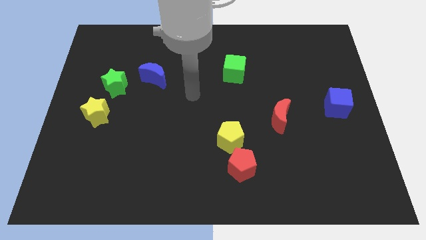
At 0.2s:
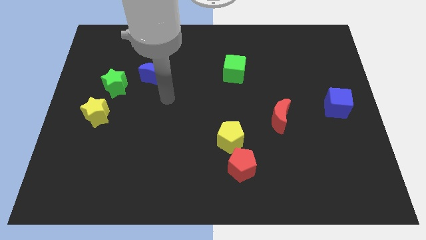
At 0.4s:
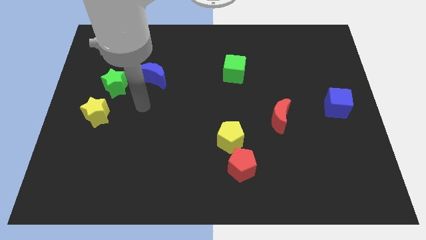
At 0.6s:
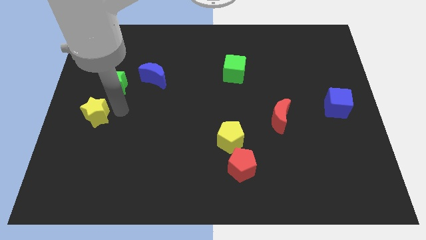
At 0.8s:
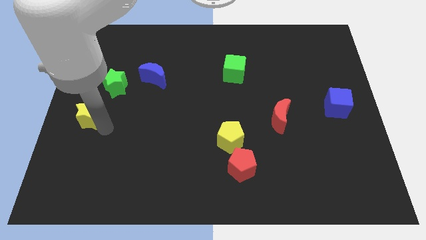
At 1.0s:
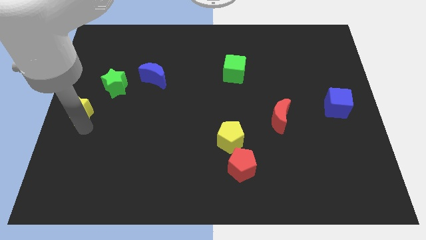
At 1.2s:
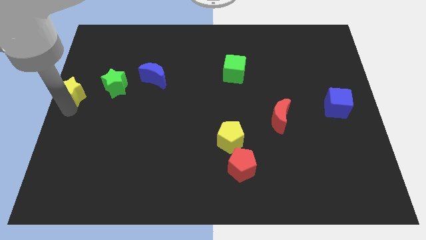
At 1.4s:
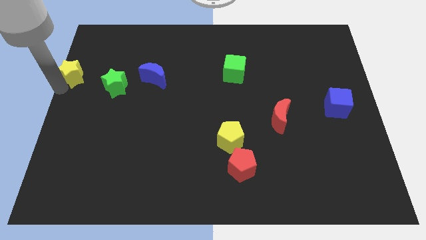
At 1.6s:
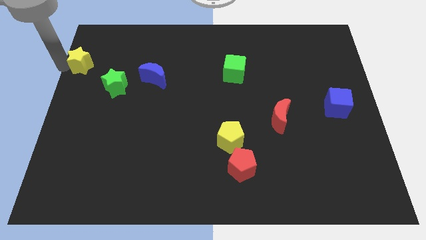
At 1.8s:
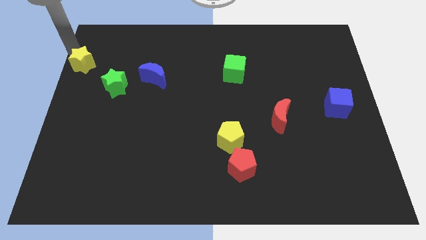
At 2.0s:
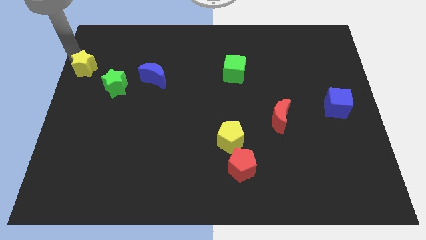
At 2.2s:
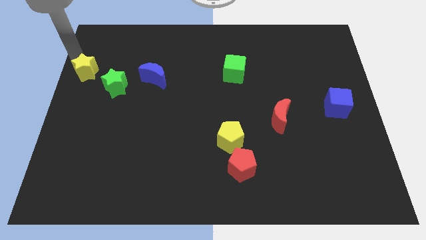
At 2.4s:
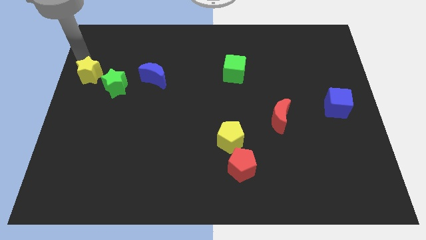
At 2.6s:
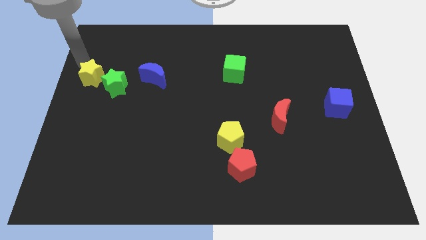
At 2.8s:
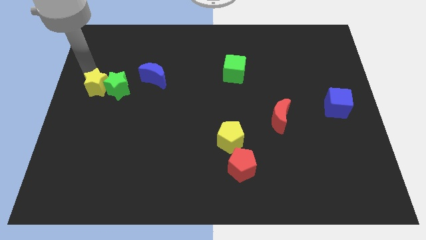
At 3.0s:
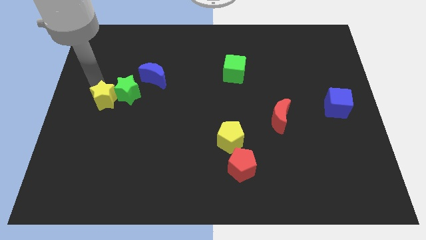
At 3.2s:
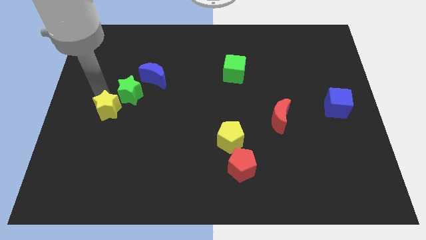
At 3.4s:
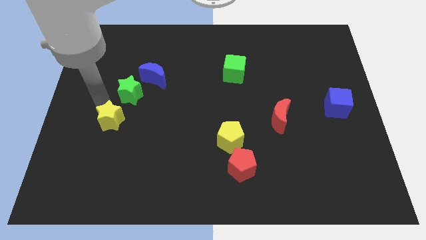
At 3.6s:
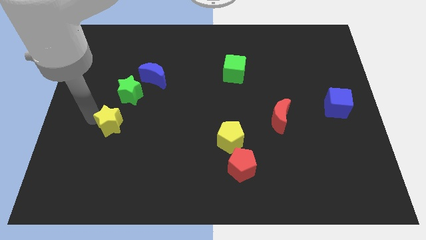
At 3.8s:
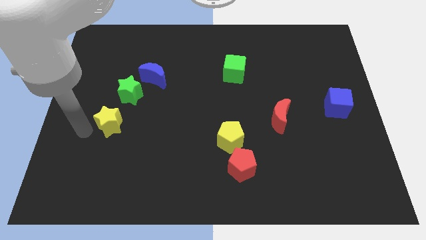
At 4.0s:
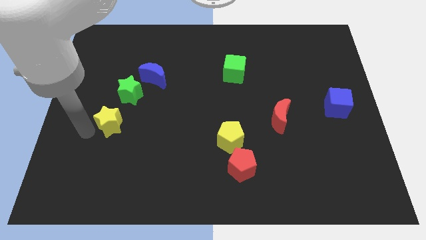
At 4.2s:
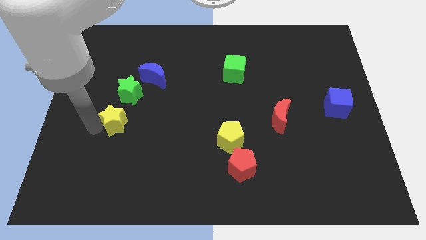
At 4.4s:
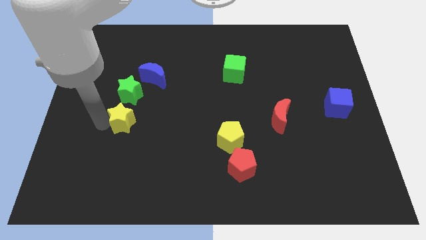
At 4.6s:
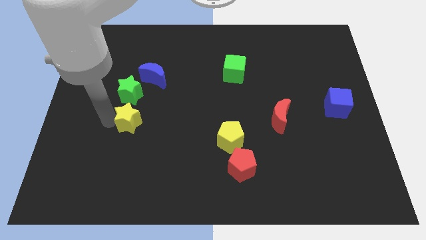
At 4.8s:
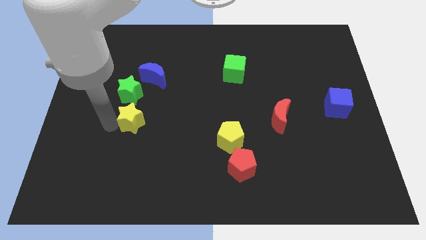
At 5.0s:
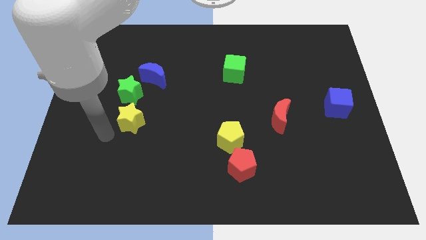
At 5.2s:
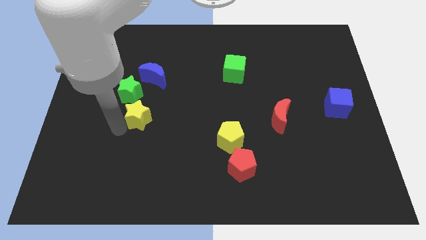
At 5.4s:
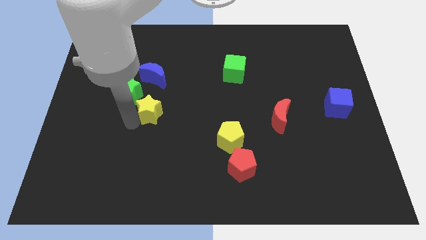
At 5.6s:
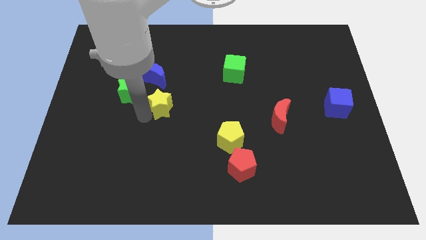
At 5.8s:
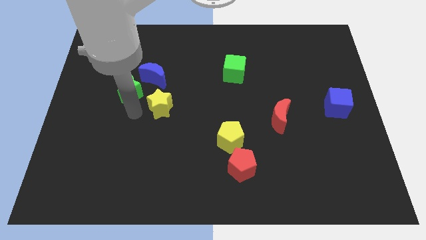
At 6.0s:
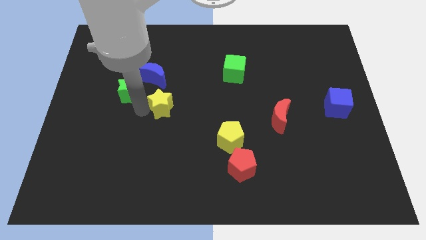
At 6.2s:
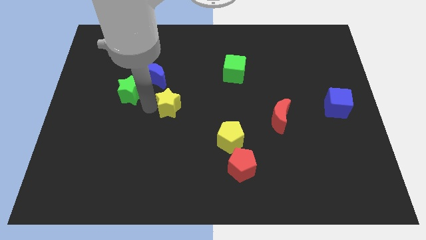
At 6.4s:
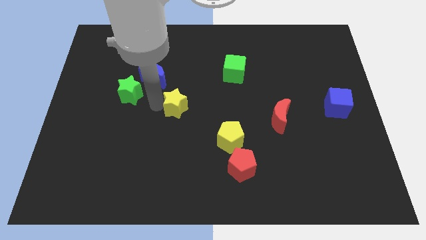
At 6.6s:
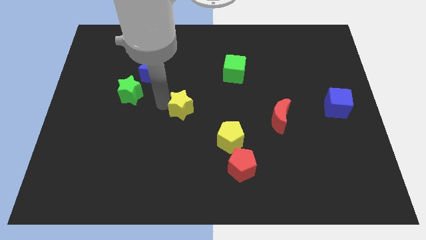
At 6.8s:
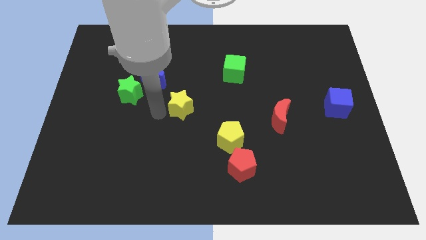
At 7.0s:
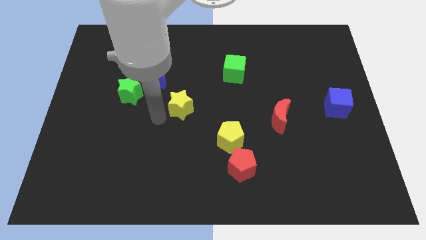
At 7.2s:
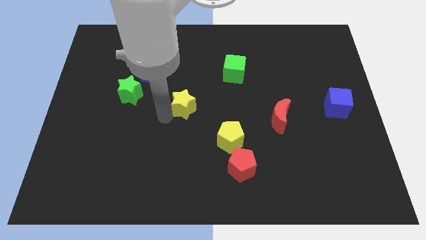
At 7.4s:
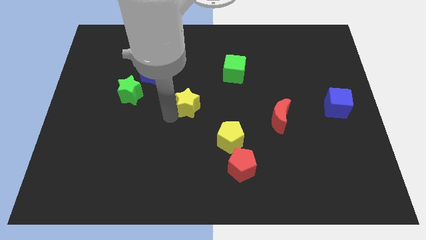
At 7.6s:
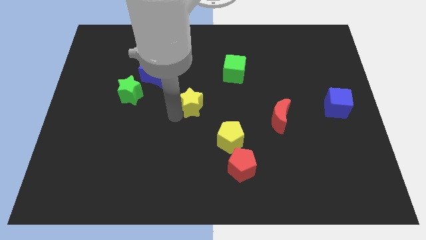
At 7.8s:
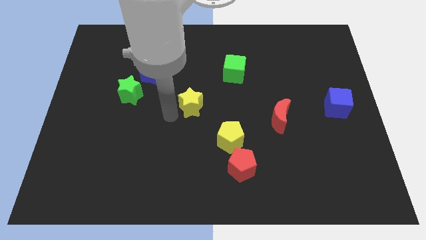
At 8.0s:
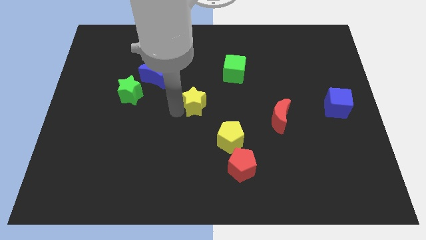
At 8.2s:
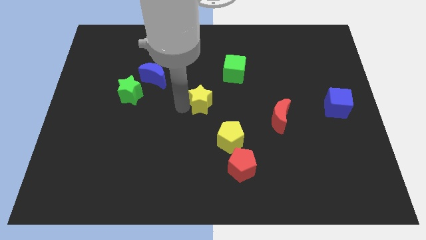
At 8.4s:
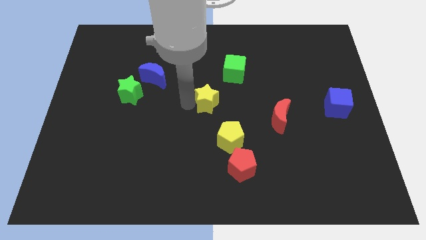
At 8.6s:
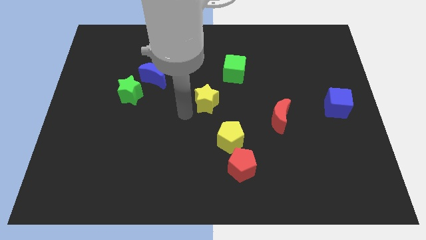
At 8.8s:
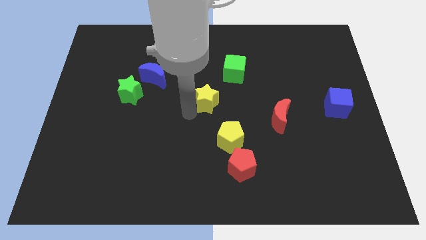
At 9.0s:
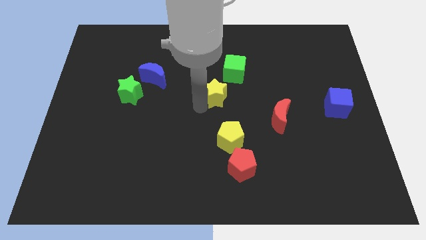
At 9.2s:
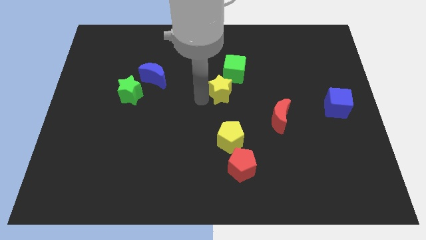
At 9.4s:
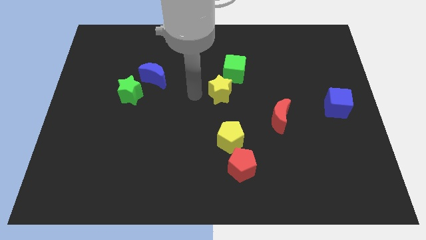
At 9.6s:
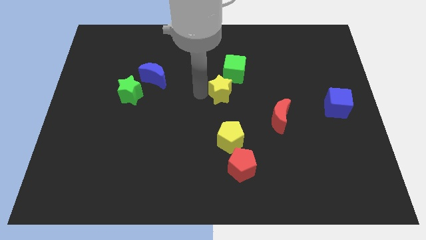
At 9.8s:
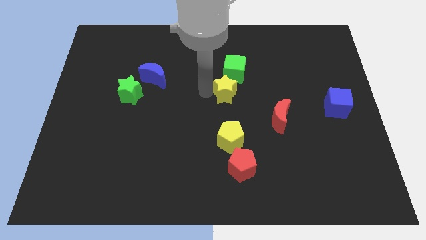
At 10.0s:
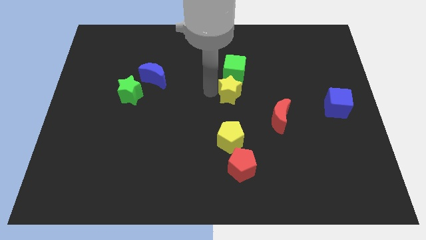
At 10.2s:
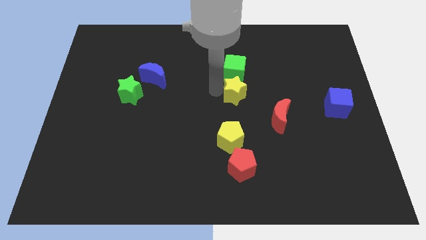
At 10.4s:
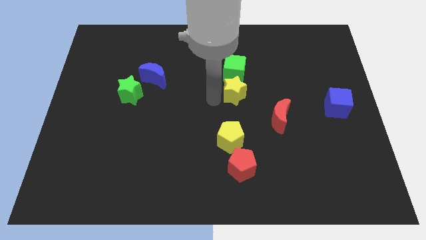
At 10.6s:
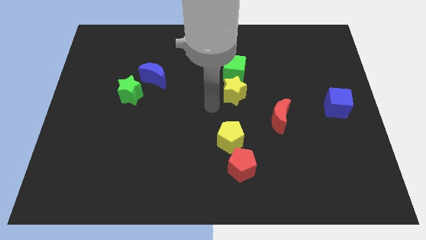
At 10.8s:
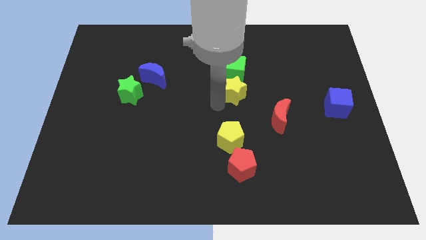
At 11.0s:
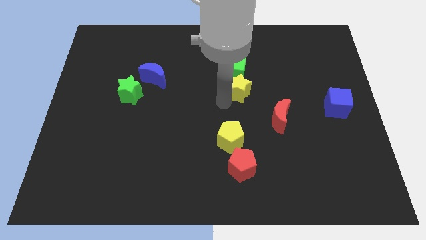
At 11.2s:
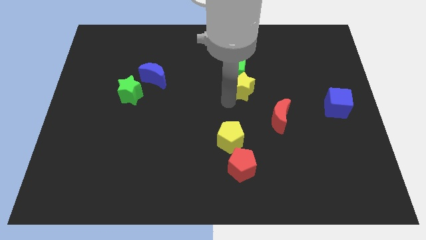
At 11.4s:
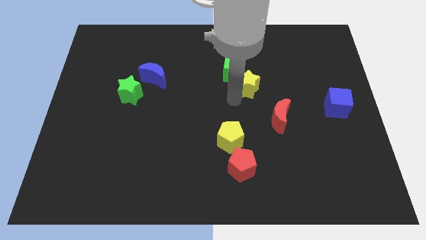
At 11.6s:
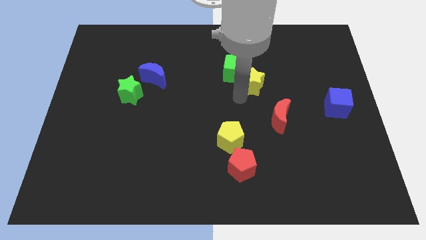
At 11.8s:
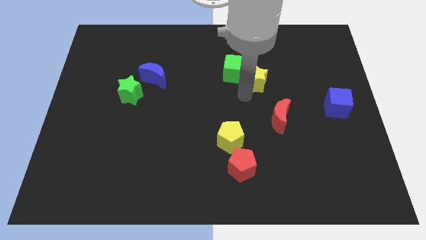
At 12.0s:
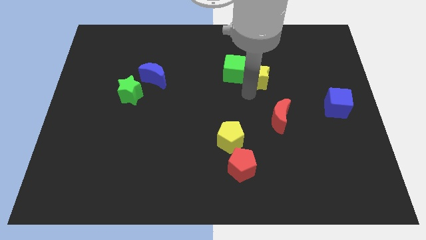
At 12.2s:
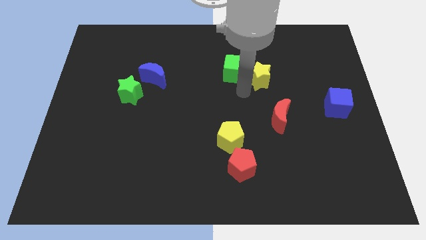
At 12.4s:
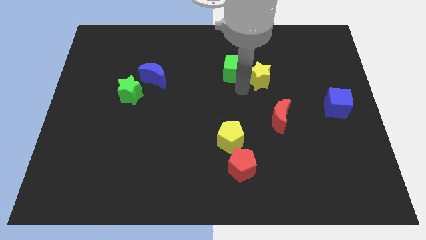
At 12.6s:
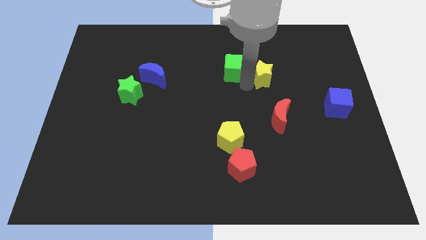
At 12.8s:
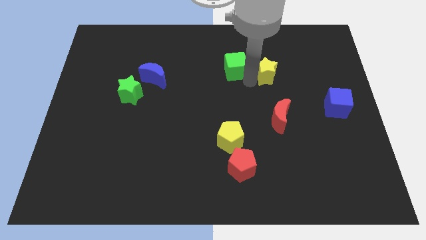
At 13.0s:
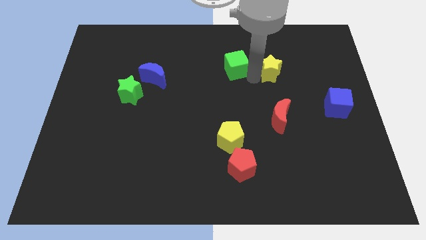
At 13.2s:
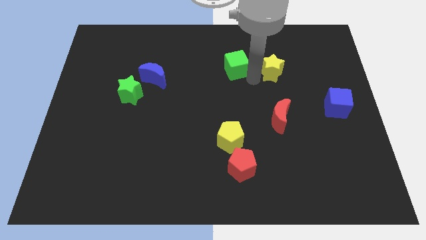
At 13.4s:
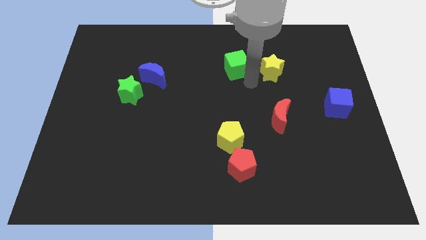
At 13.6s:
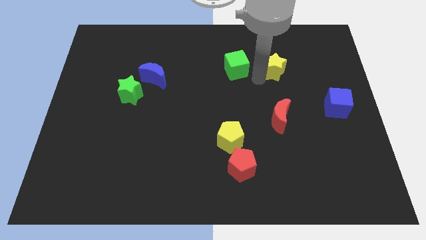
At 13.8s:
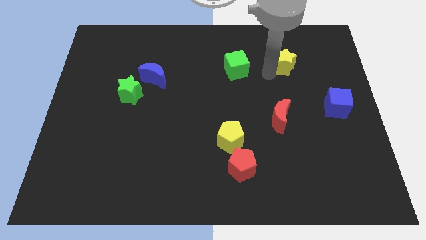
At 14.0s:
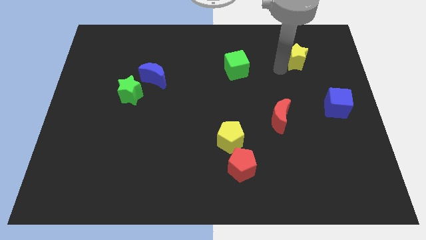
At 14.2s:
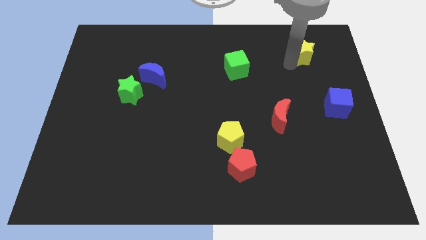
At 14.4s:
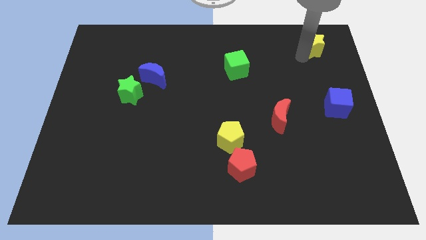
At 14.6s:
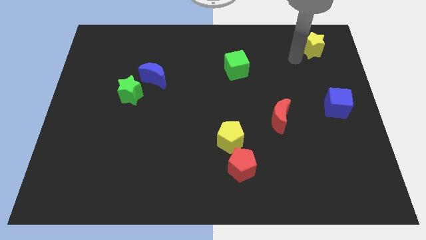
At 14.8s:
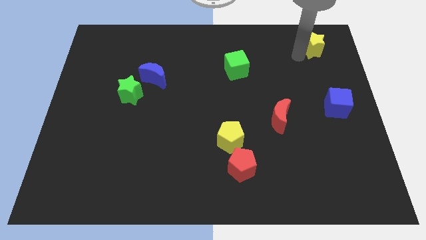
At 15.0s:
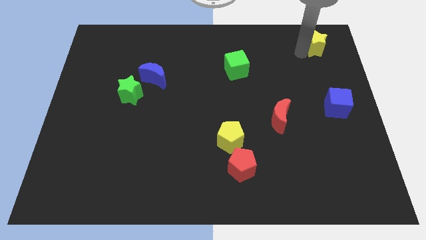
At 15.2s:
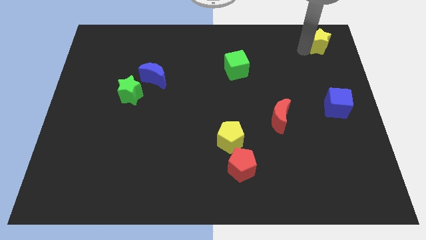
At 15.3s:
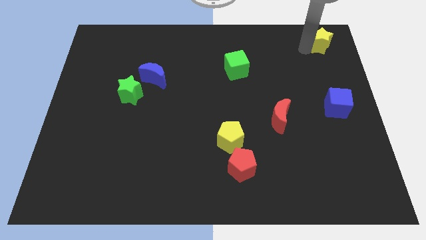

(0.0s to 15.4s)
put the yellow star to the top right corner
